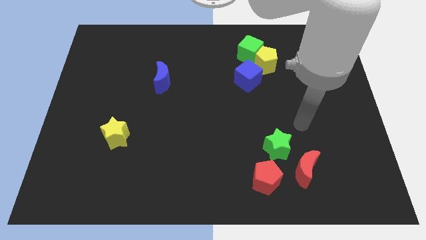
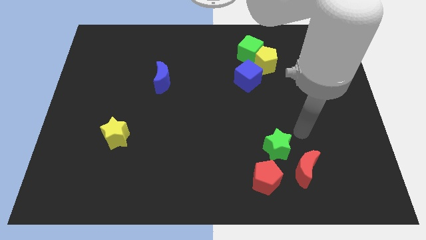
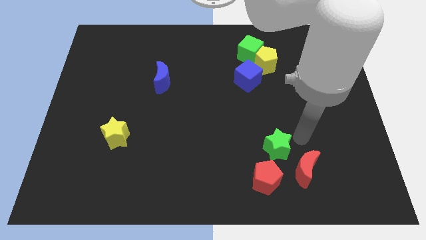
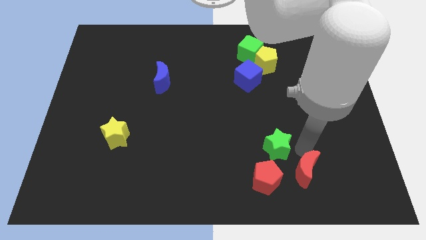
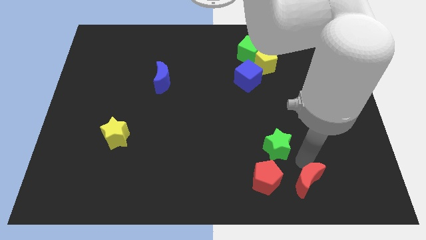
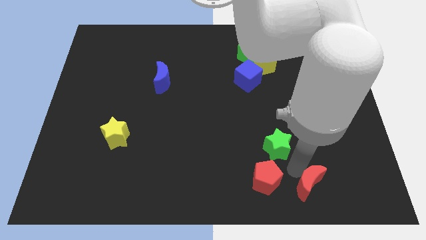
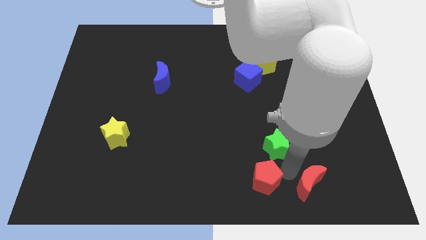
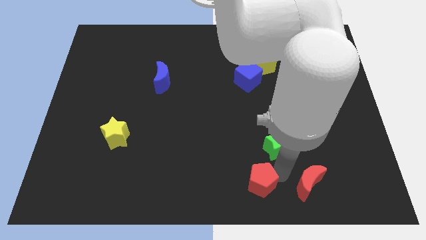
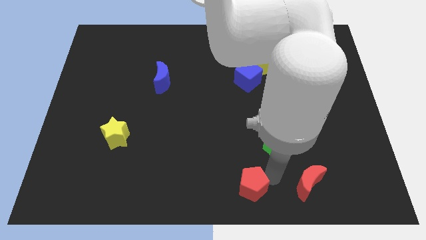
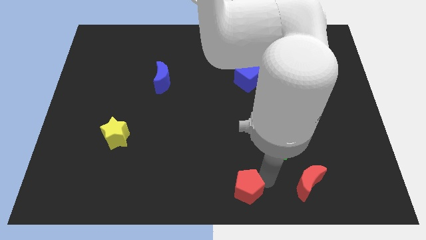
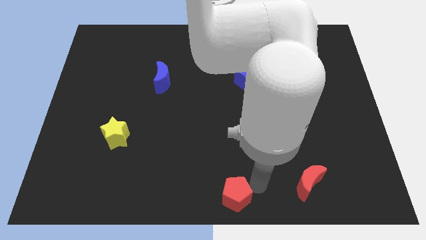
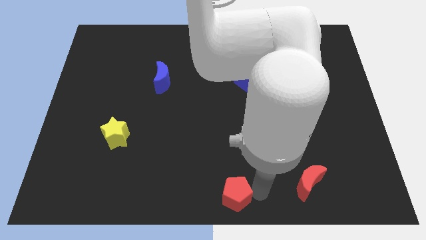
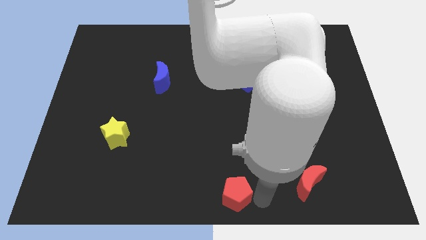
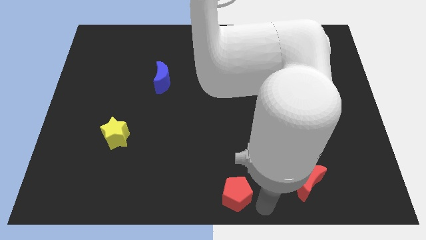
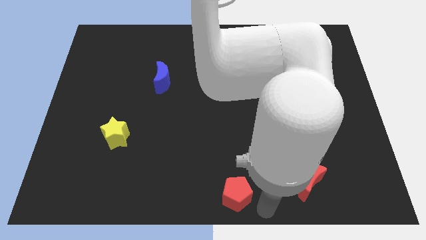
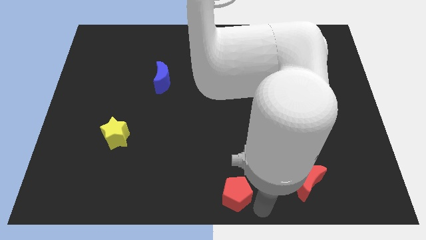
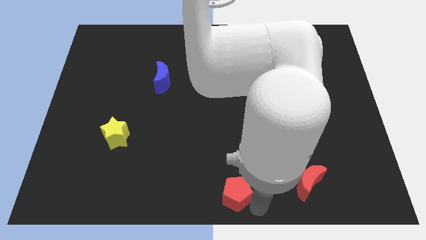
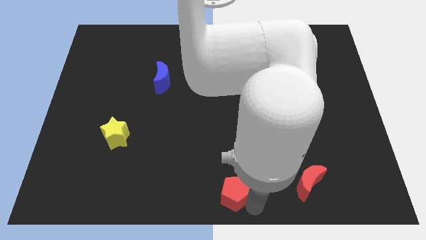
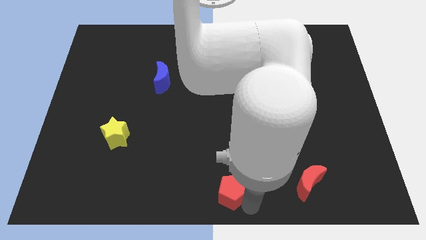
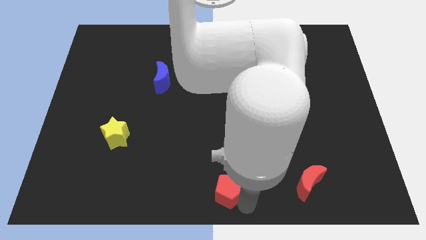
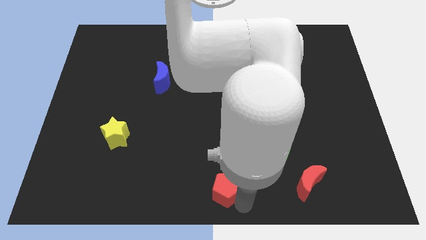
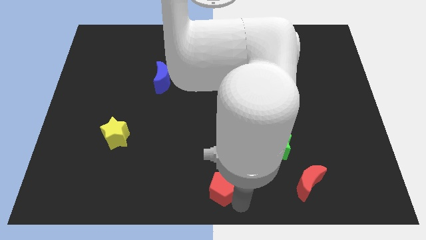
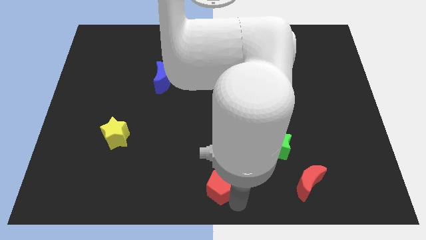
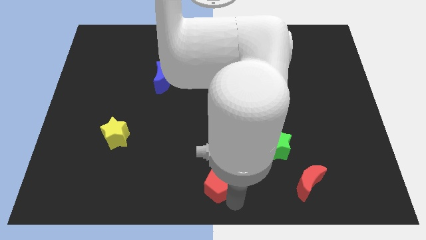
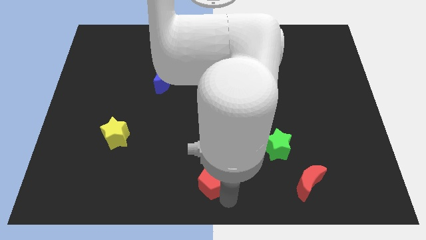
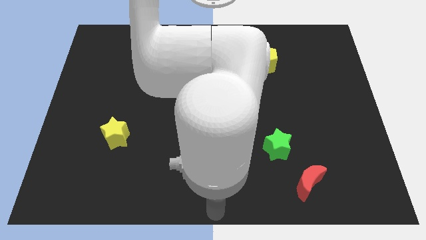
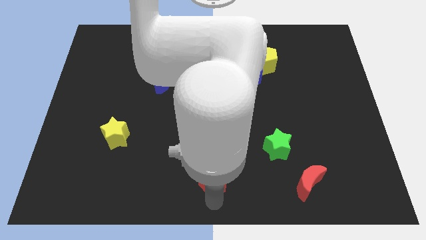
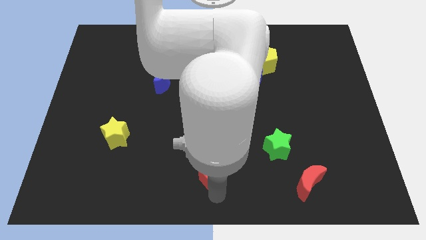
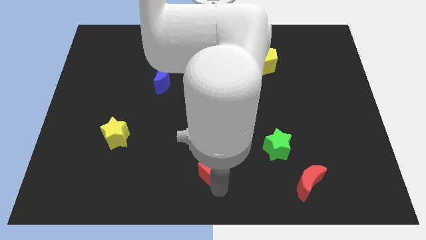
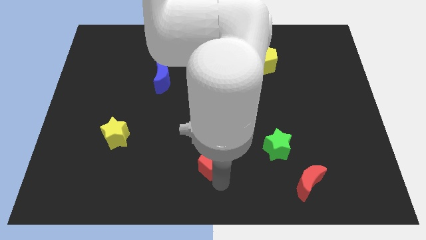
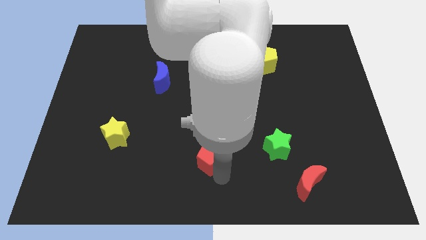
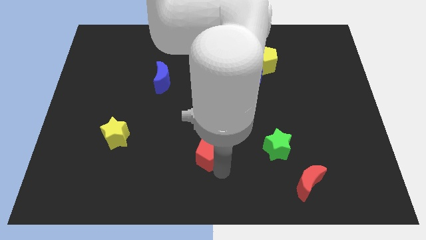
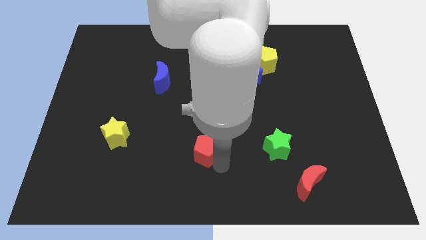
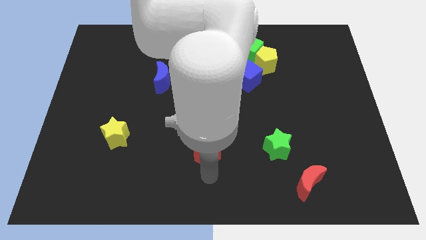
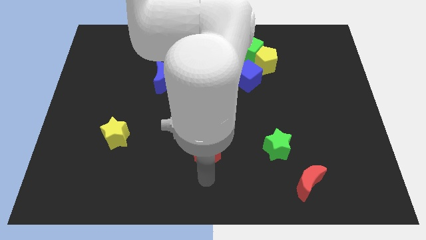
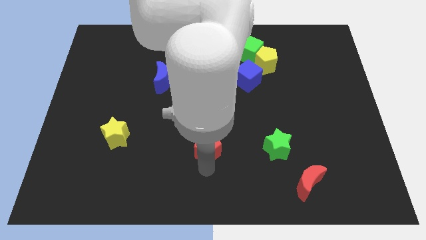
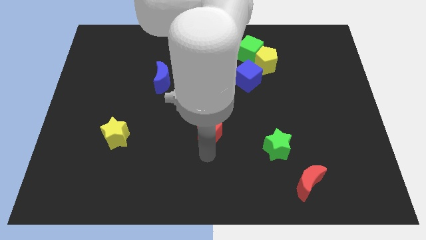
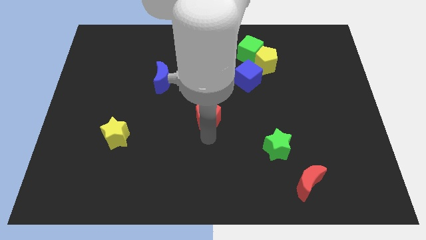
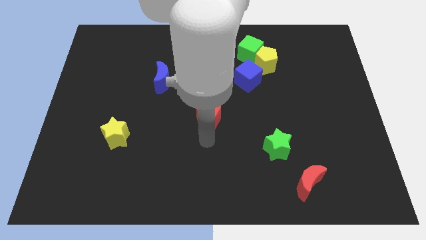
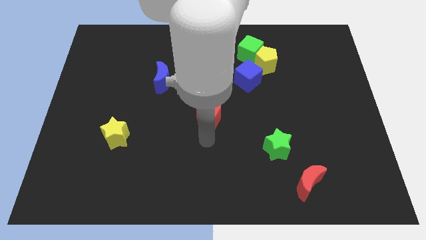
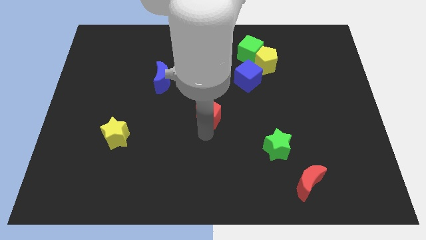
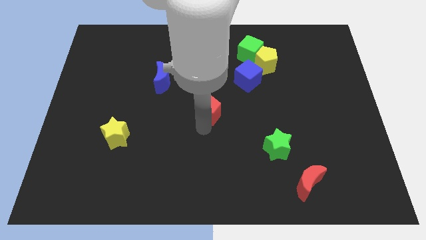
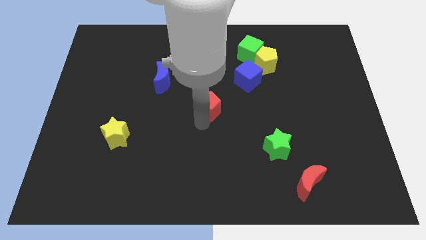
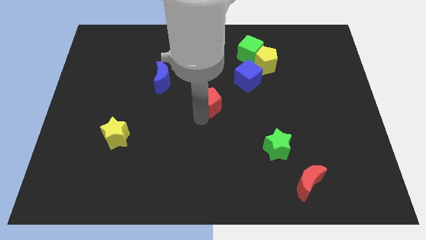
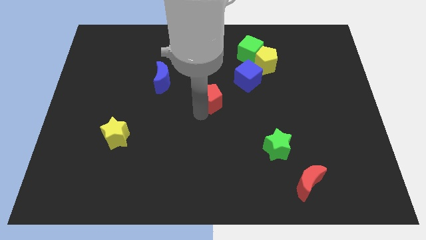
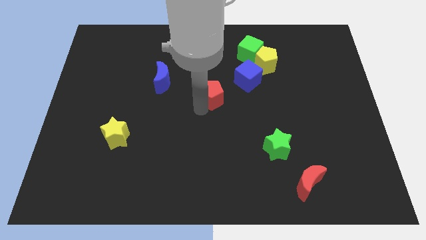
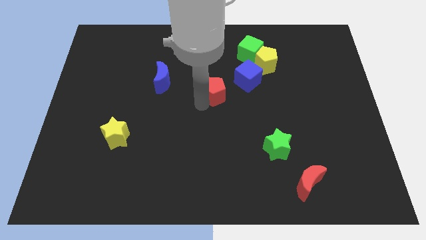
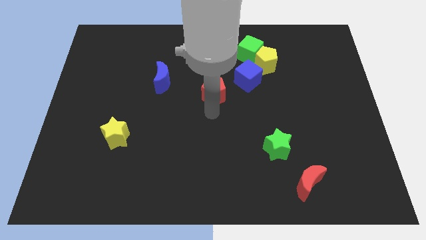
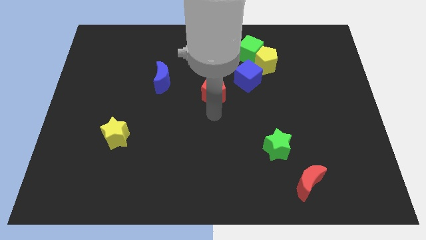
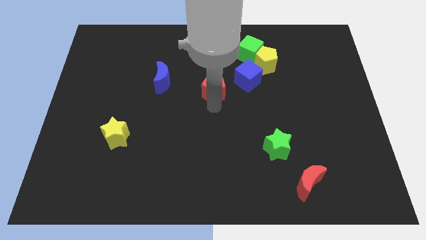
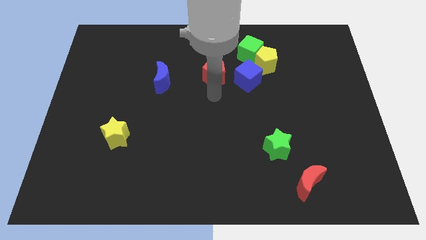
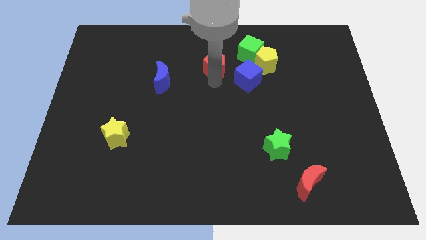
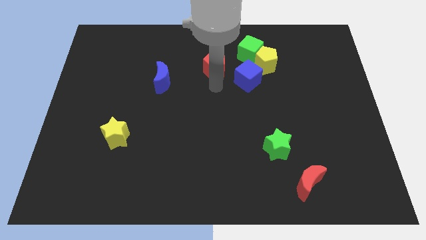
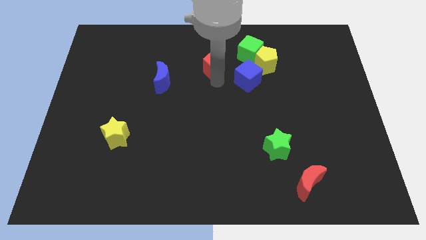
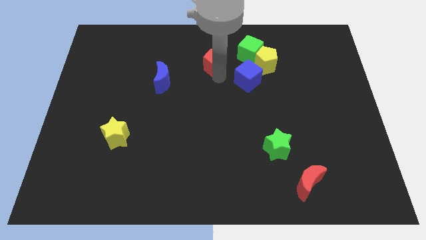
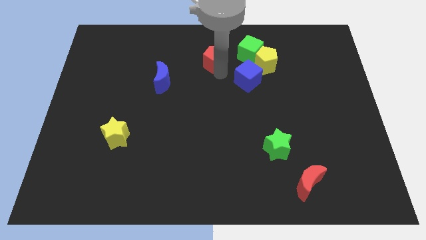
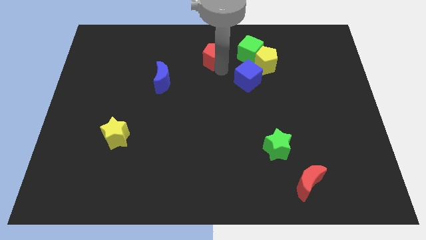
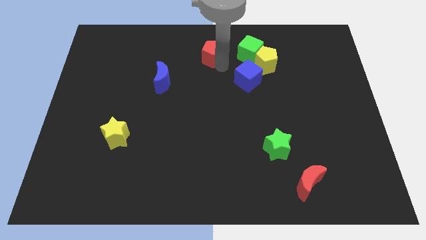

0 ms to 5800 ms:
move the red pentagon to the towards your base
